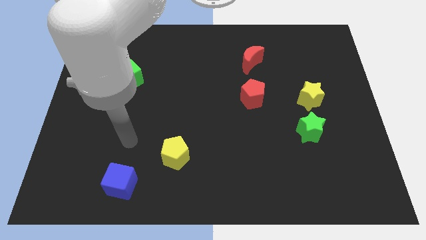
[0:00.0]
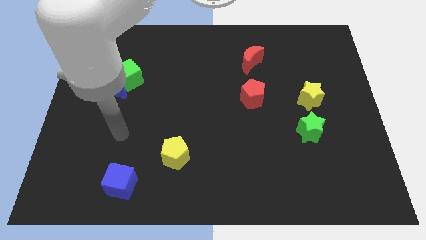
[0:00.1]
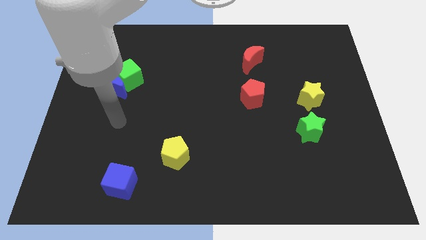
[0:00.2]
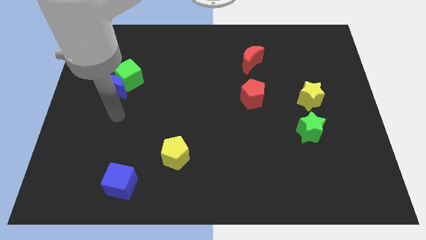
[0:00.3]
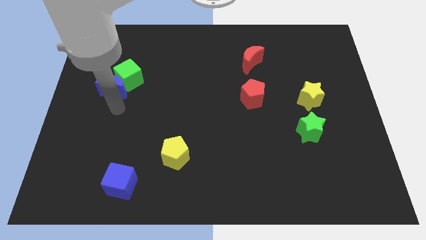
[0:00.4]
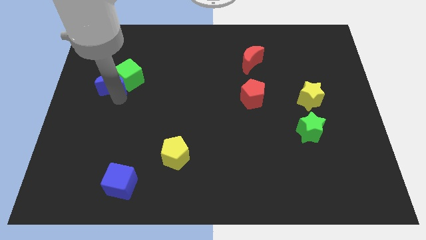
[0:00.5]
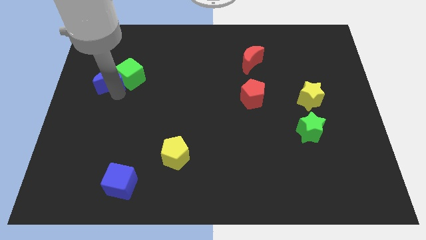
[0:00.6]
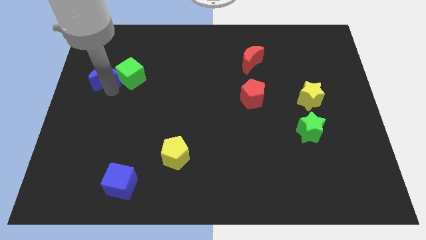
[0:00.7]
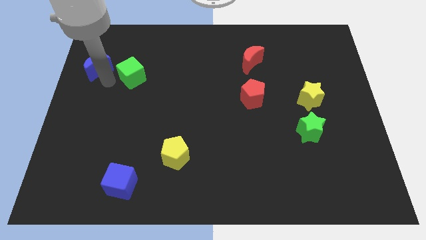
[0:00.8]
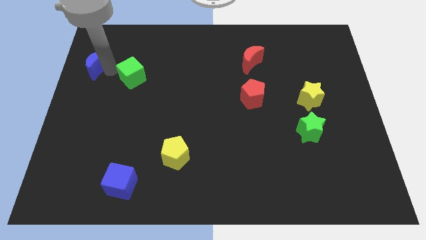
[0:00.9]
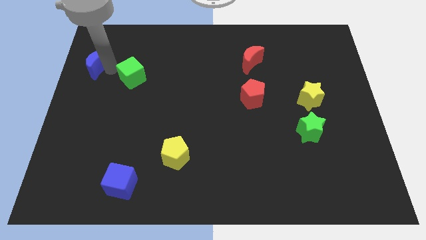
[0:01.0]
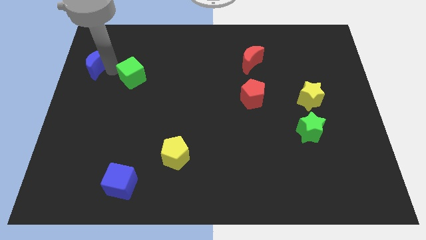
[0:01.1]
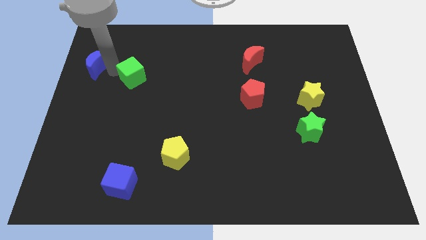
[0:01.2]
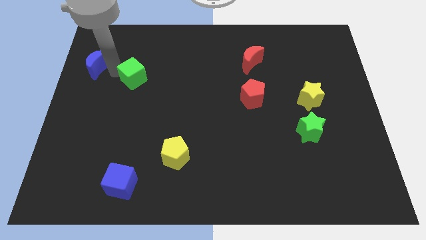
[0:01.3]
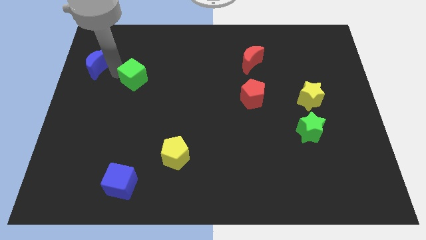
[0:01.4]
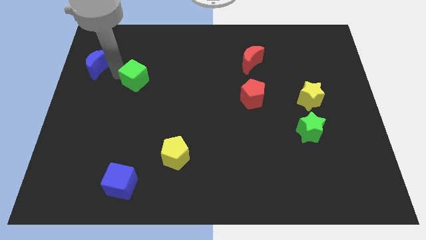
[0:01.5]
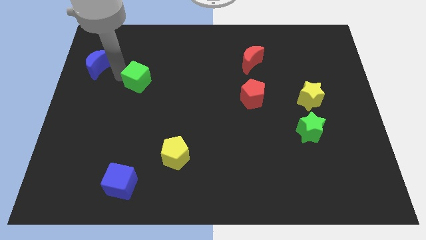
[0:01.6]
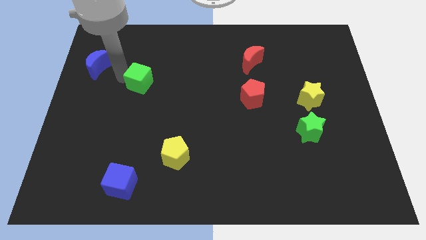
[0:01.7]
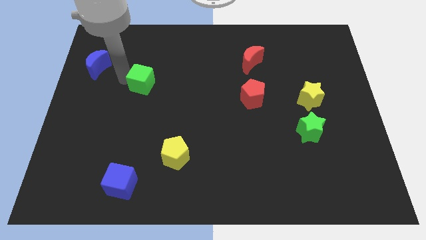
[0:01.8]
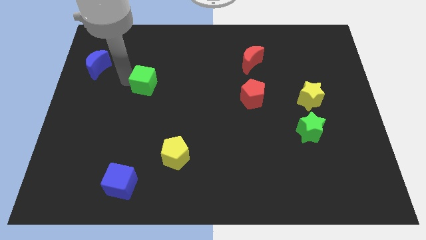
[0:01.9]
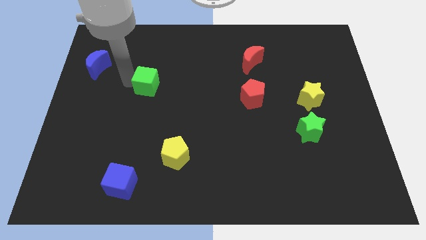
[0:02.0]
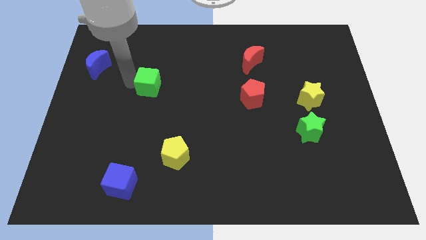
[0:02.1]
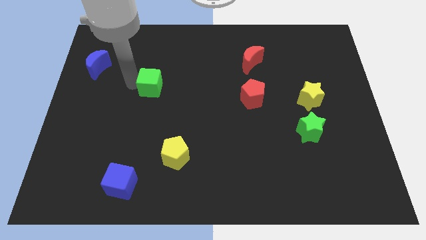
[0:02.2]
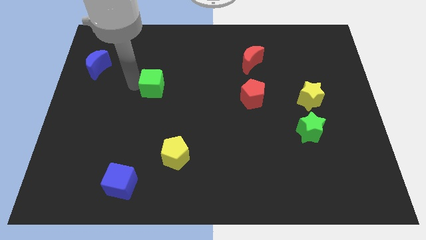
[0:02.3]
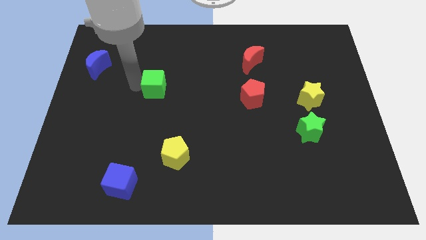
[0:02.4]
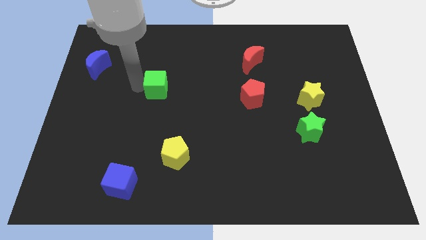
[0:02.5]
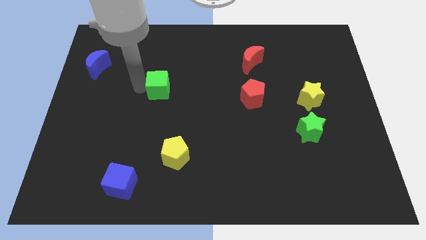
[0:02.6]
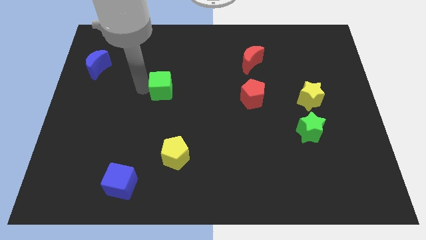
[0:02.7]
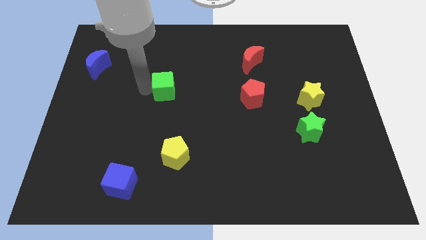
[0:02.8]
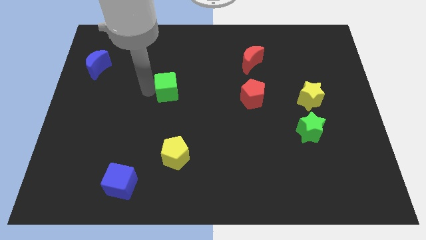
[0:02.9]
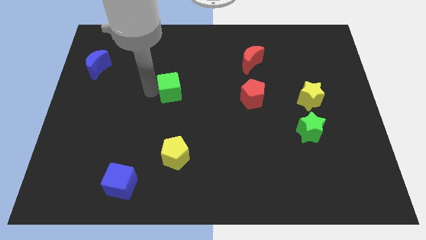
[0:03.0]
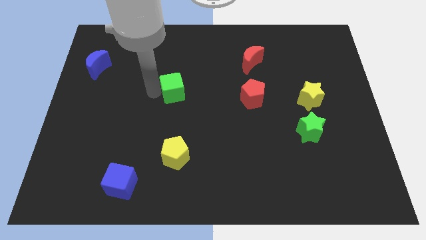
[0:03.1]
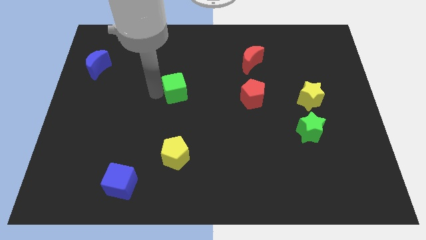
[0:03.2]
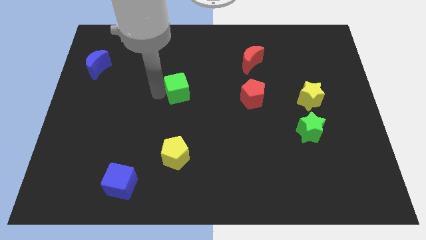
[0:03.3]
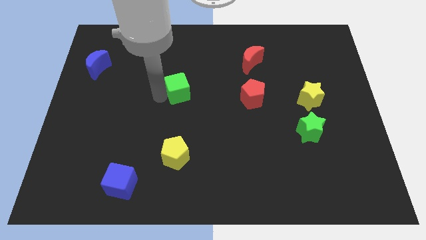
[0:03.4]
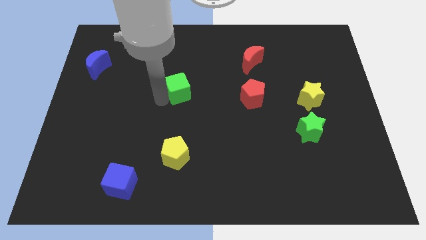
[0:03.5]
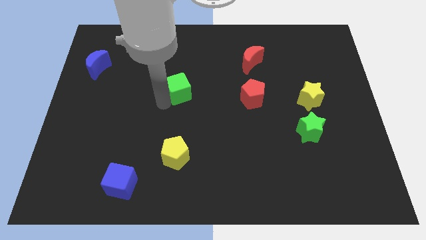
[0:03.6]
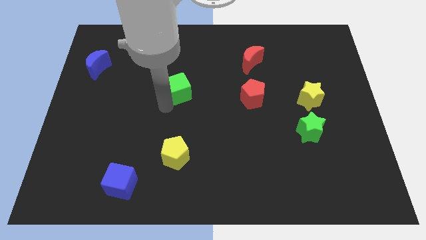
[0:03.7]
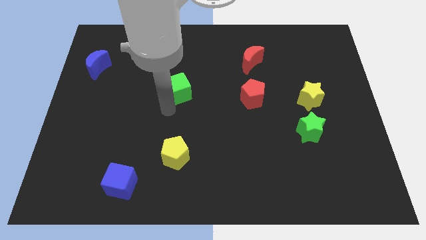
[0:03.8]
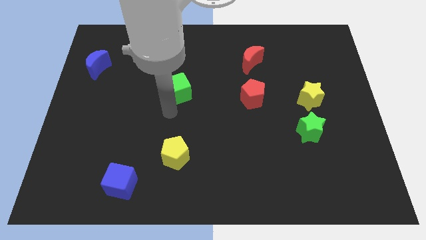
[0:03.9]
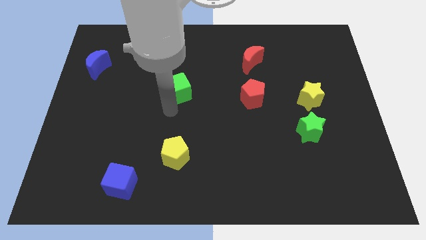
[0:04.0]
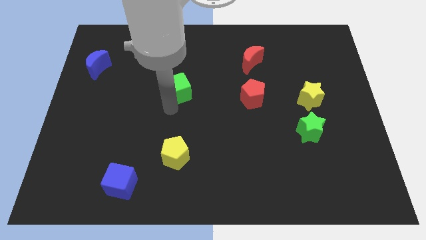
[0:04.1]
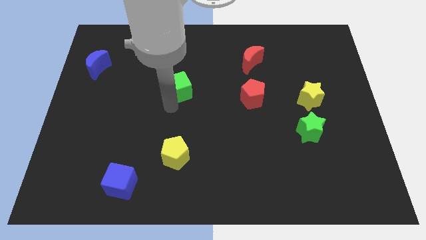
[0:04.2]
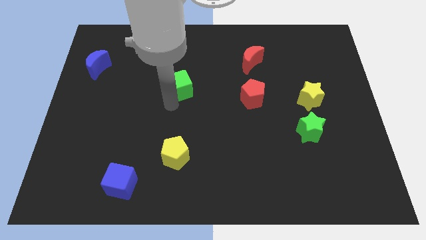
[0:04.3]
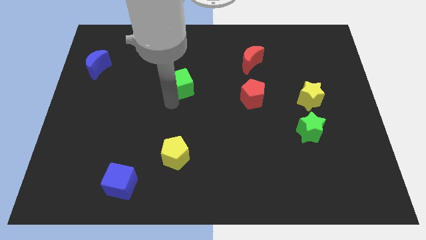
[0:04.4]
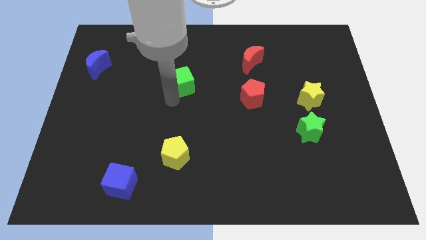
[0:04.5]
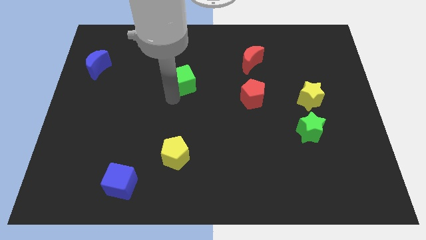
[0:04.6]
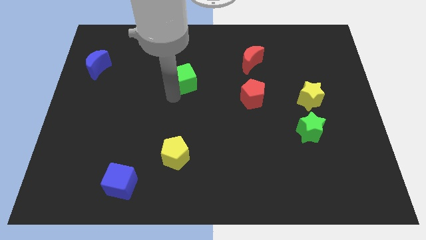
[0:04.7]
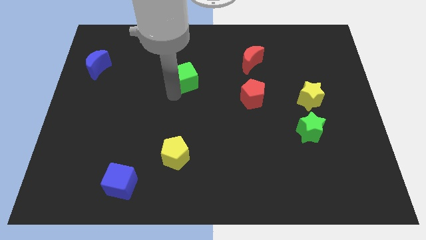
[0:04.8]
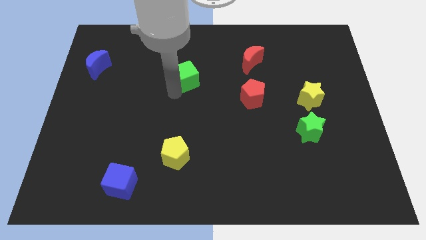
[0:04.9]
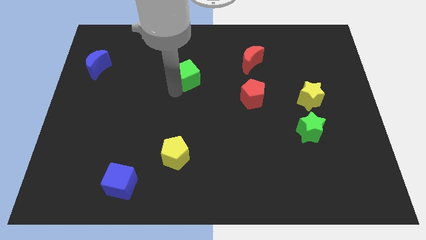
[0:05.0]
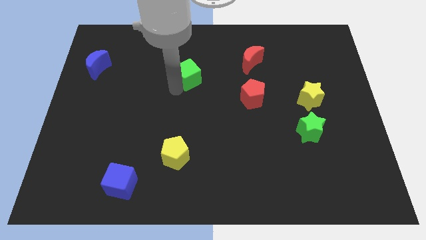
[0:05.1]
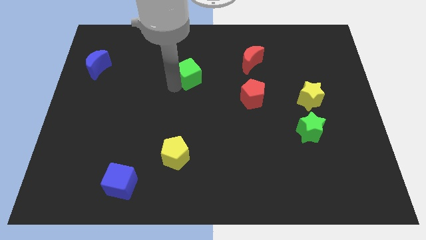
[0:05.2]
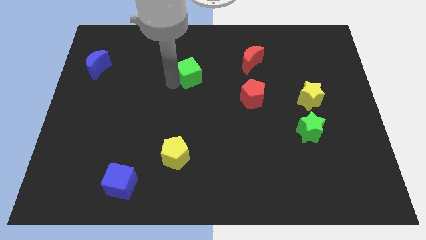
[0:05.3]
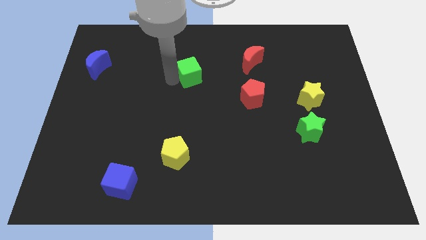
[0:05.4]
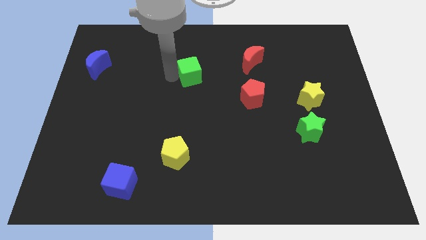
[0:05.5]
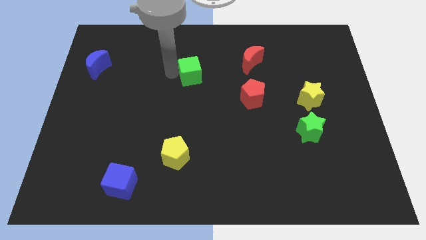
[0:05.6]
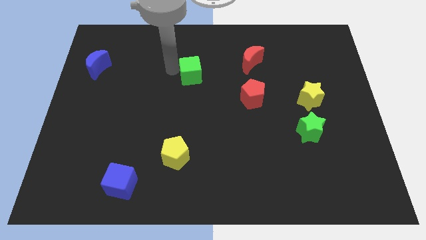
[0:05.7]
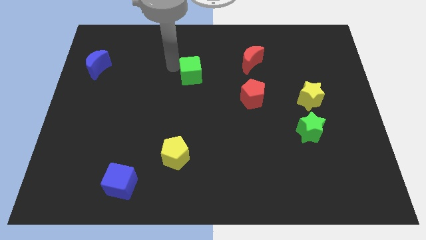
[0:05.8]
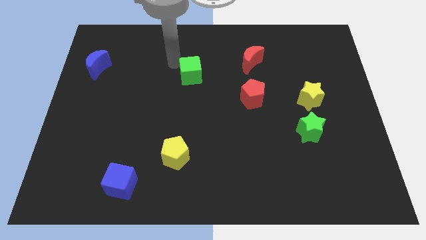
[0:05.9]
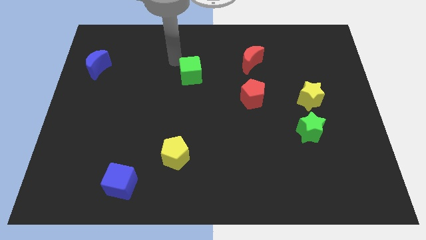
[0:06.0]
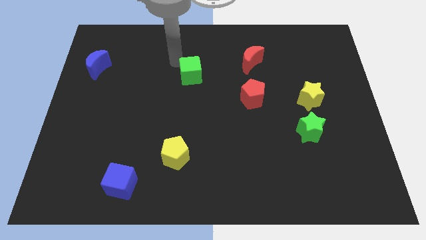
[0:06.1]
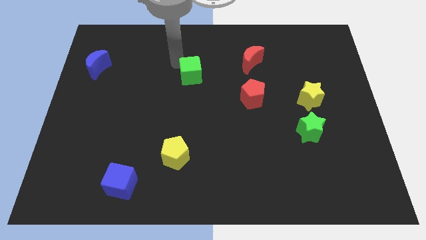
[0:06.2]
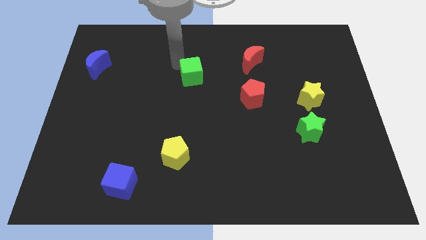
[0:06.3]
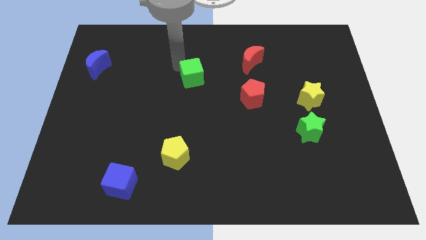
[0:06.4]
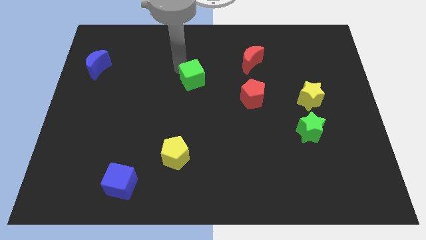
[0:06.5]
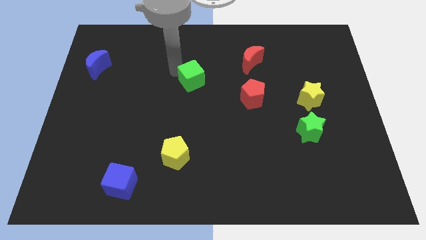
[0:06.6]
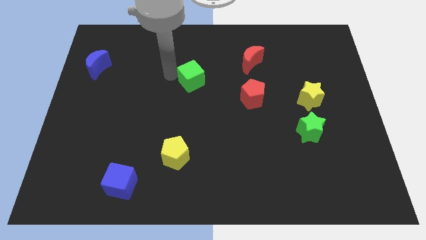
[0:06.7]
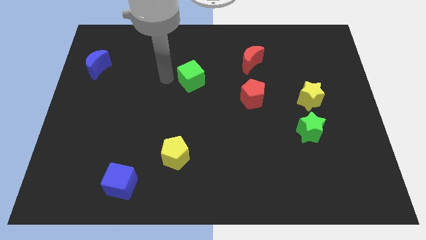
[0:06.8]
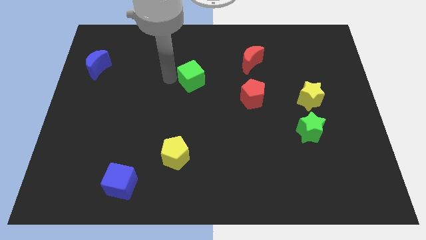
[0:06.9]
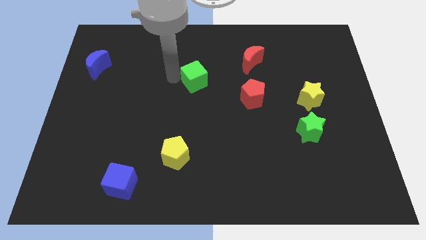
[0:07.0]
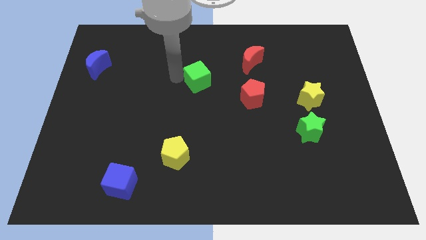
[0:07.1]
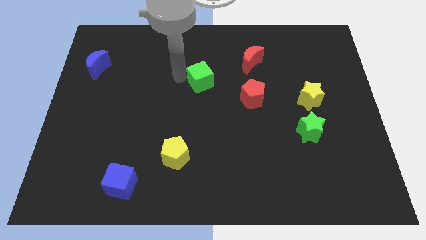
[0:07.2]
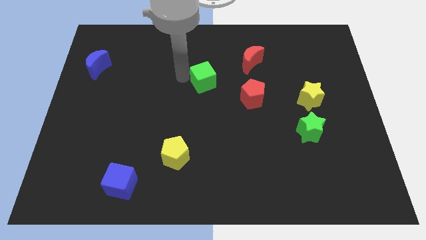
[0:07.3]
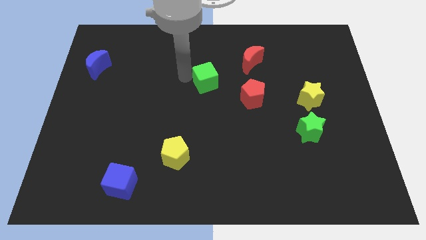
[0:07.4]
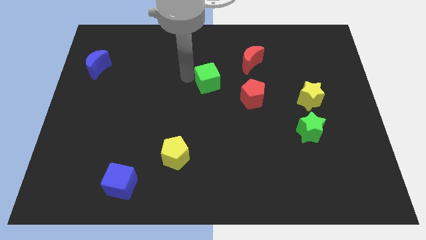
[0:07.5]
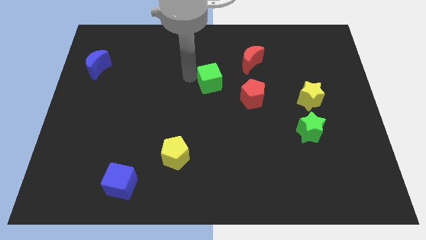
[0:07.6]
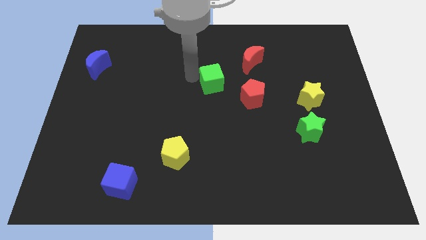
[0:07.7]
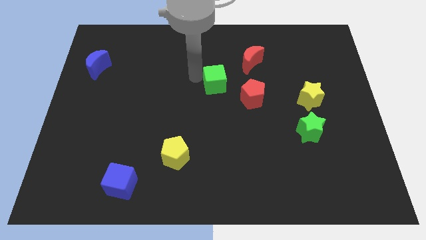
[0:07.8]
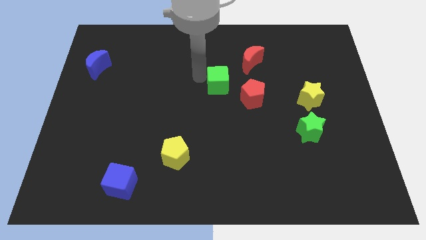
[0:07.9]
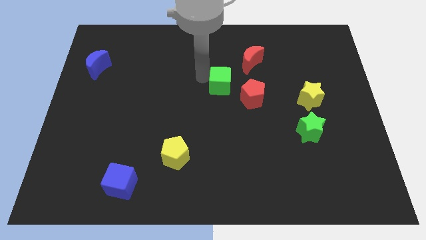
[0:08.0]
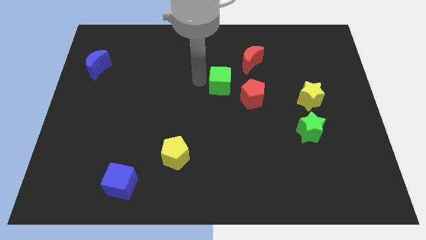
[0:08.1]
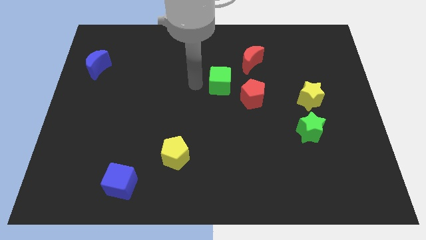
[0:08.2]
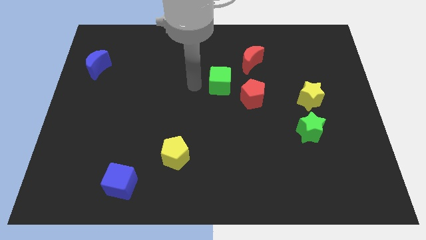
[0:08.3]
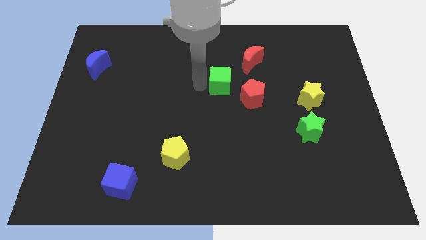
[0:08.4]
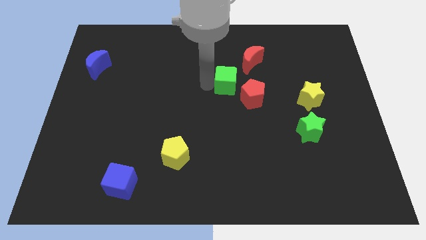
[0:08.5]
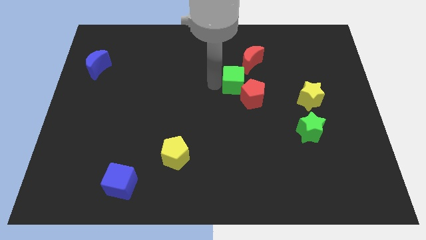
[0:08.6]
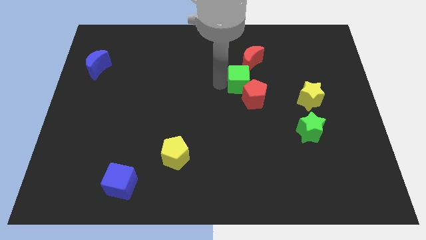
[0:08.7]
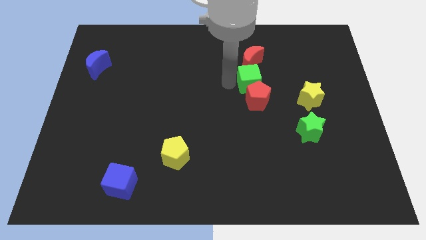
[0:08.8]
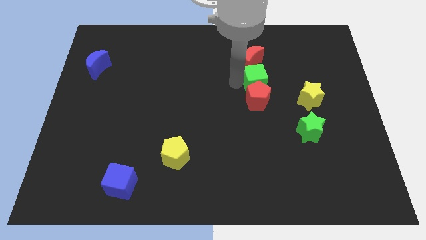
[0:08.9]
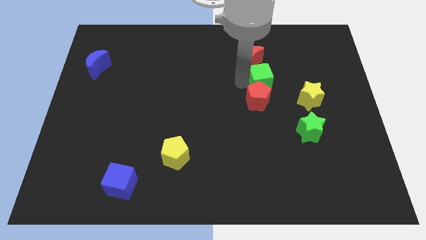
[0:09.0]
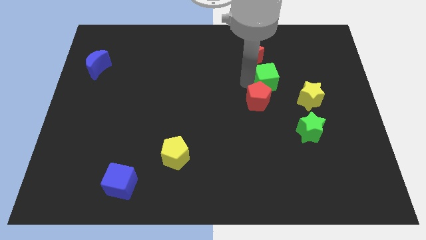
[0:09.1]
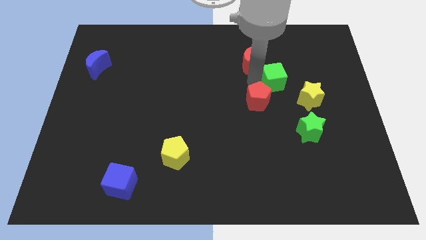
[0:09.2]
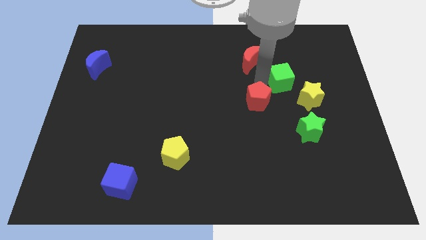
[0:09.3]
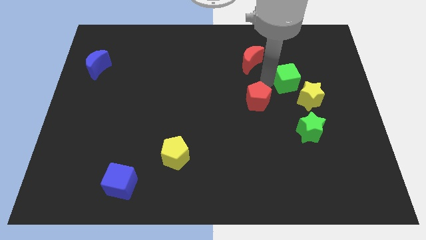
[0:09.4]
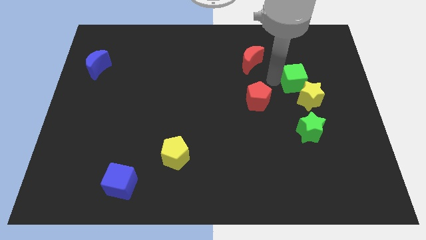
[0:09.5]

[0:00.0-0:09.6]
slide the green cube above the green star
